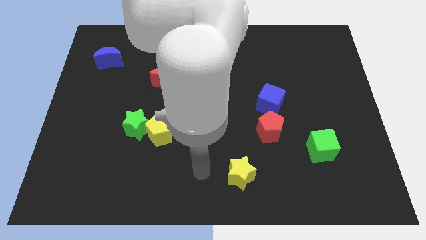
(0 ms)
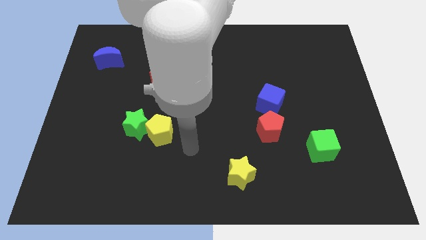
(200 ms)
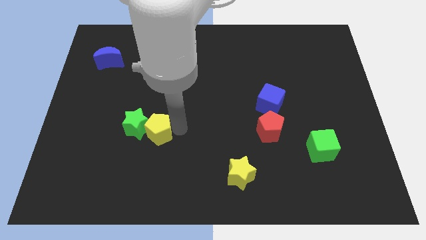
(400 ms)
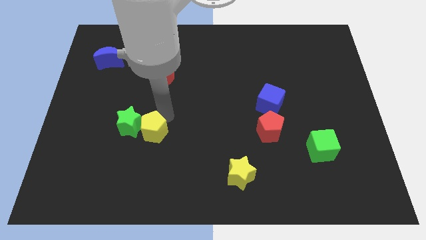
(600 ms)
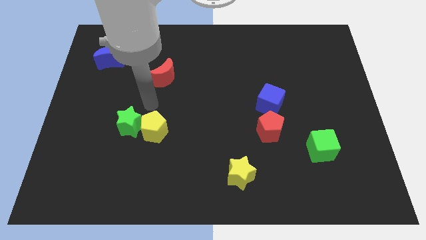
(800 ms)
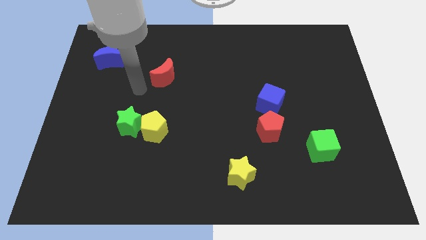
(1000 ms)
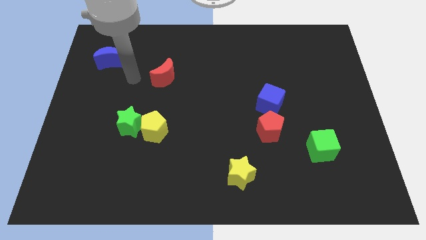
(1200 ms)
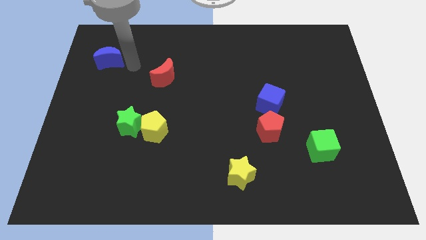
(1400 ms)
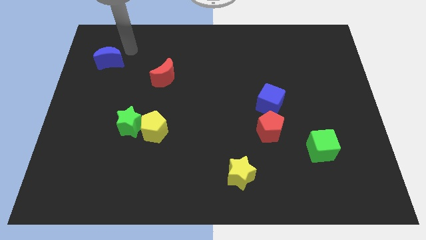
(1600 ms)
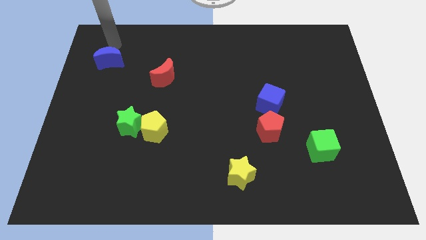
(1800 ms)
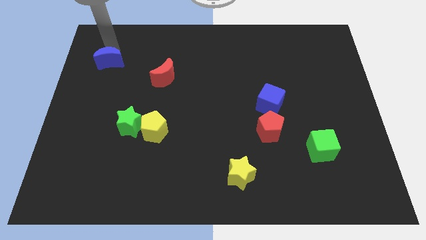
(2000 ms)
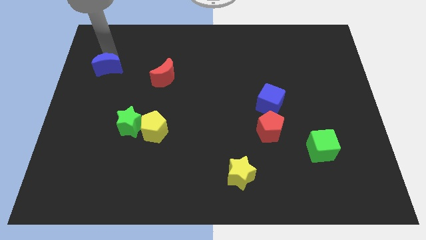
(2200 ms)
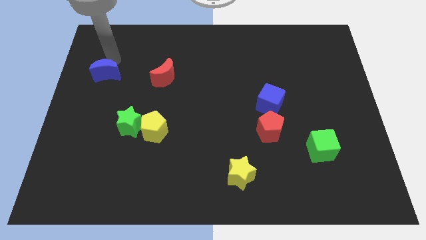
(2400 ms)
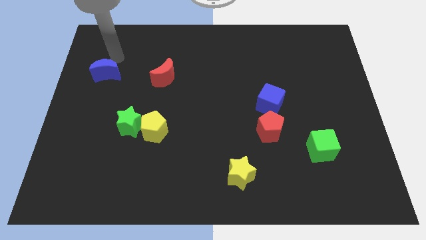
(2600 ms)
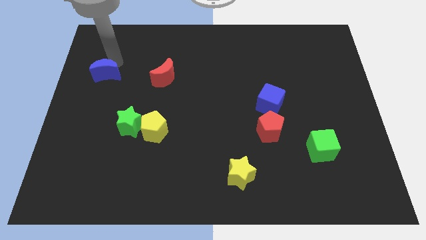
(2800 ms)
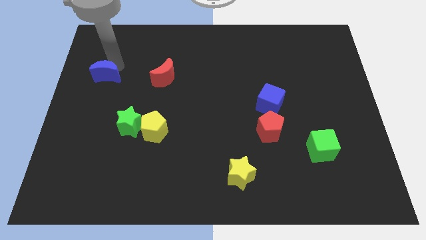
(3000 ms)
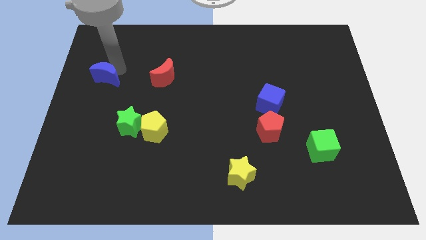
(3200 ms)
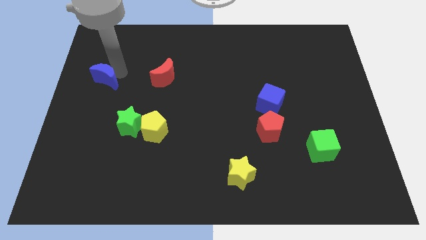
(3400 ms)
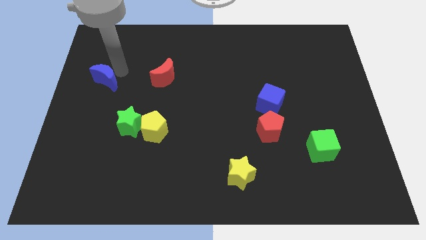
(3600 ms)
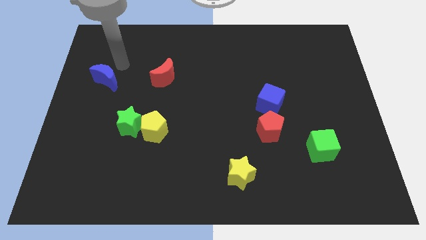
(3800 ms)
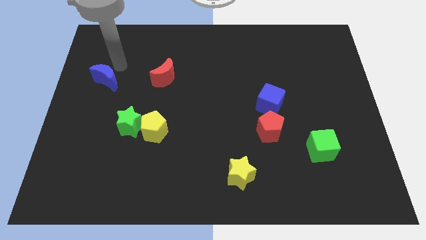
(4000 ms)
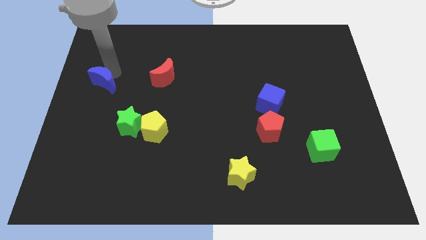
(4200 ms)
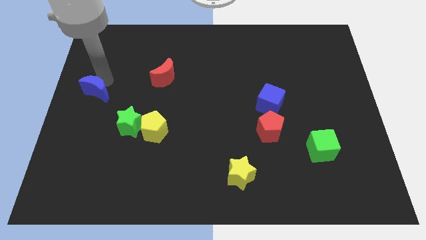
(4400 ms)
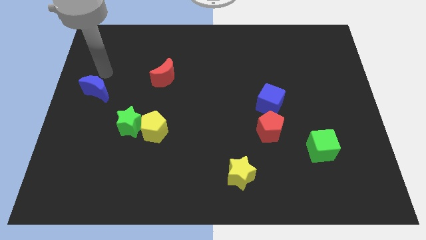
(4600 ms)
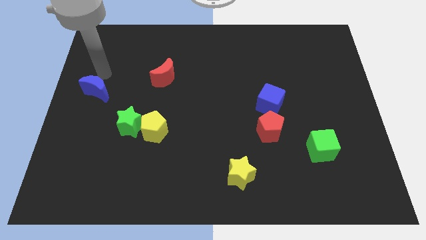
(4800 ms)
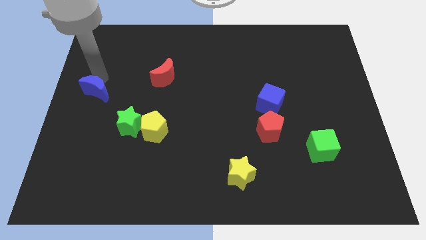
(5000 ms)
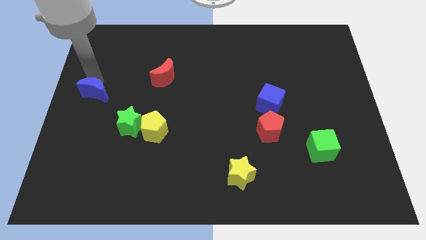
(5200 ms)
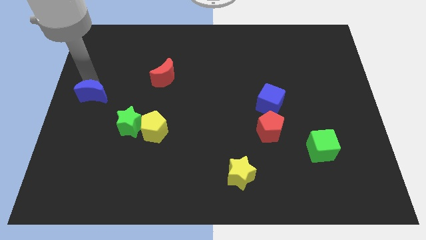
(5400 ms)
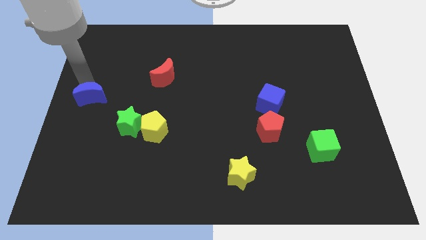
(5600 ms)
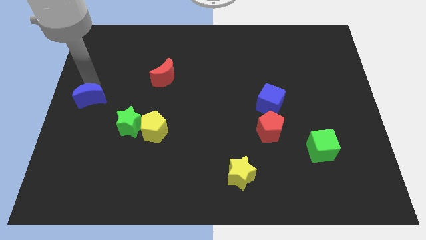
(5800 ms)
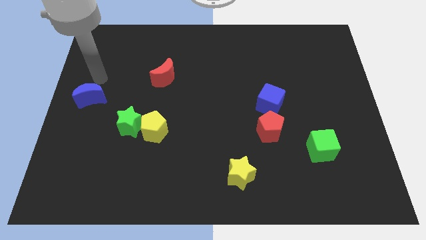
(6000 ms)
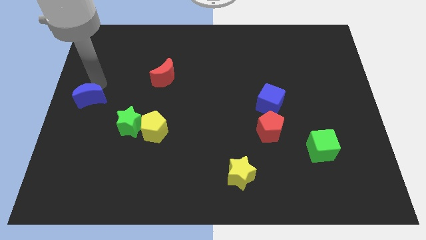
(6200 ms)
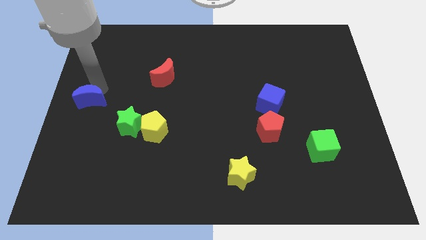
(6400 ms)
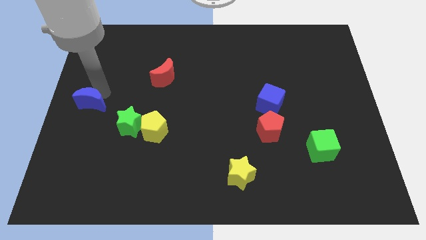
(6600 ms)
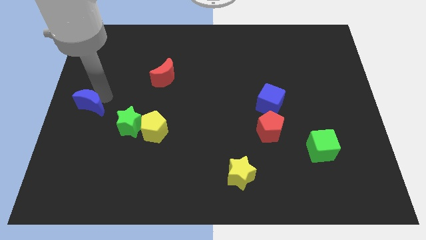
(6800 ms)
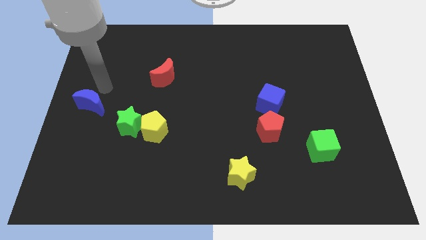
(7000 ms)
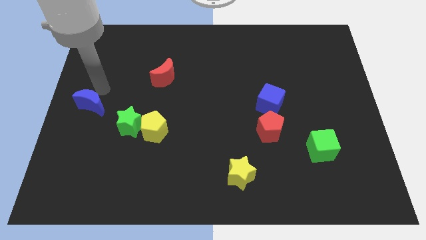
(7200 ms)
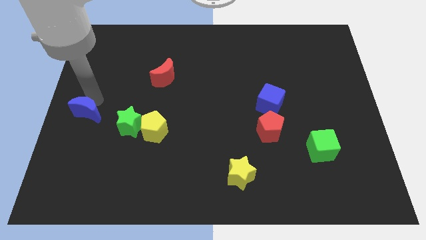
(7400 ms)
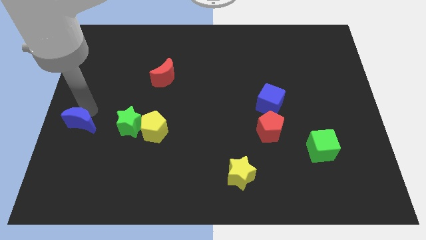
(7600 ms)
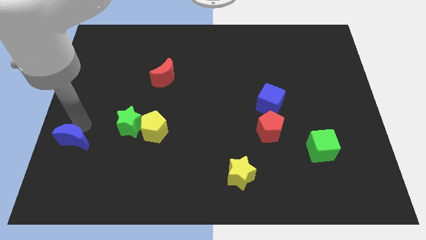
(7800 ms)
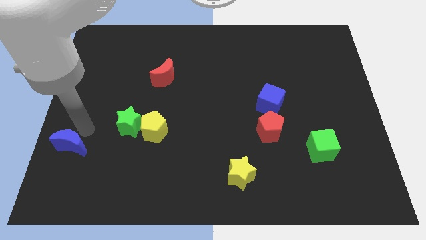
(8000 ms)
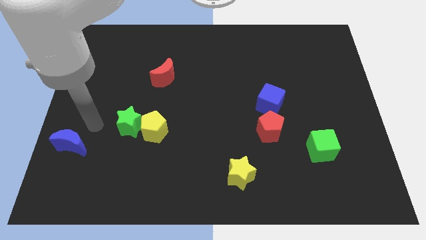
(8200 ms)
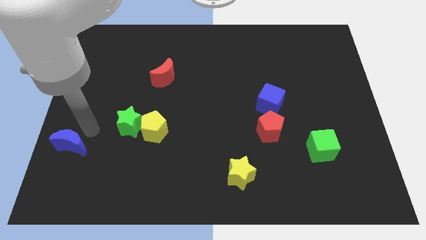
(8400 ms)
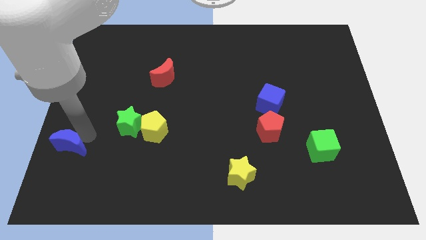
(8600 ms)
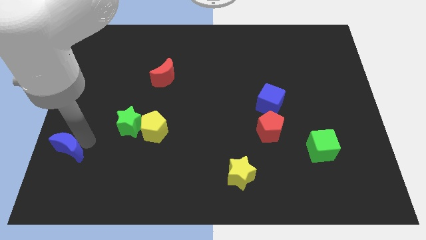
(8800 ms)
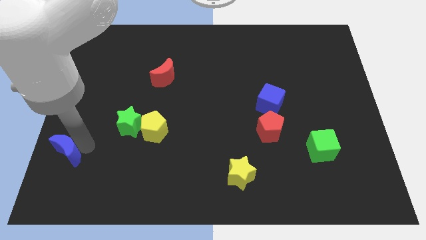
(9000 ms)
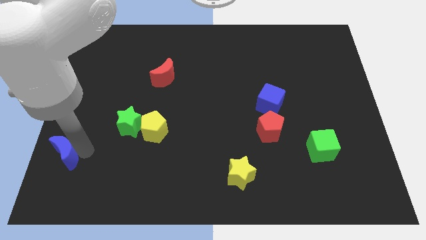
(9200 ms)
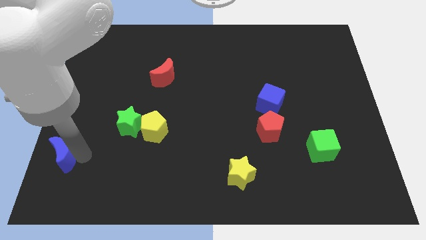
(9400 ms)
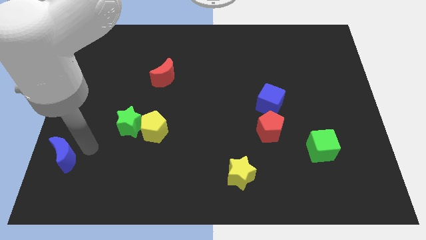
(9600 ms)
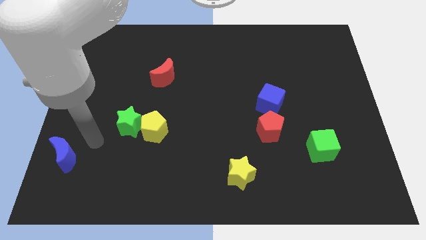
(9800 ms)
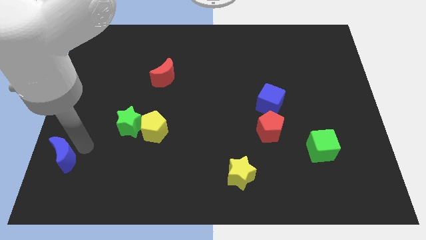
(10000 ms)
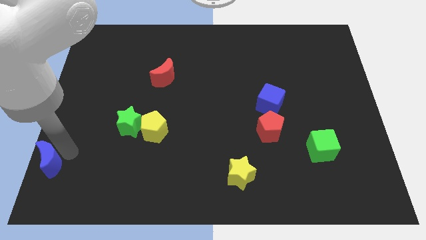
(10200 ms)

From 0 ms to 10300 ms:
move the blue moon to the lower left corner

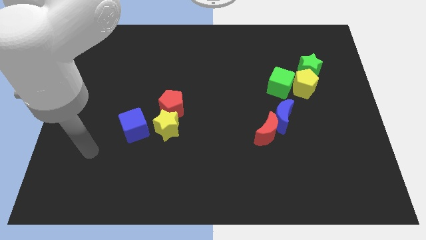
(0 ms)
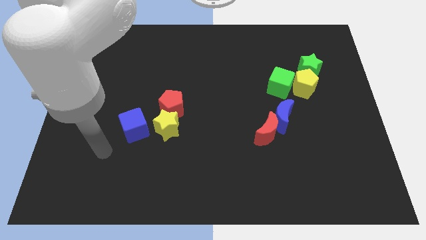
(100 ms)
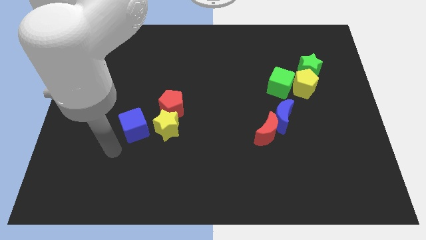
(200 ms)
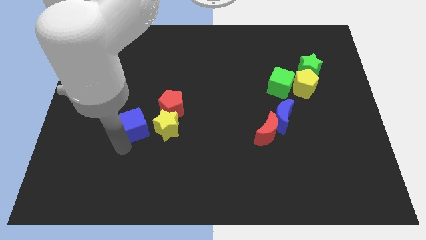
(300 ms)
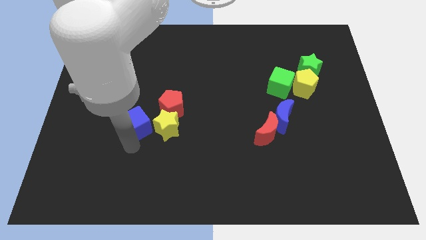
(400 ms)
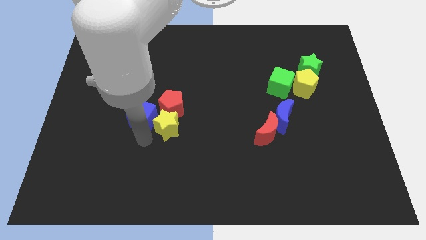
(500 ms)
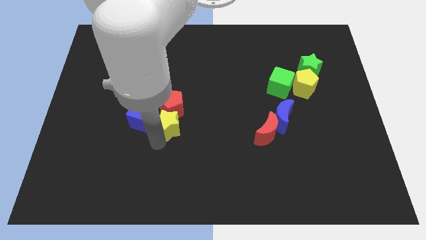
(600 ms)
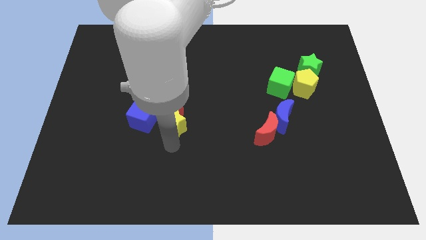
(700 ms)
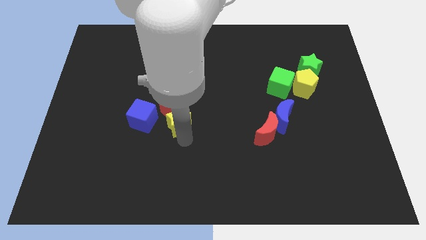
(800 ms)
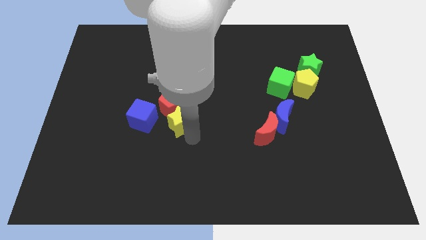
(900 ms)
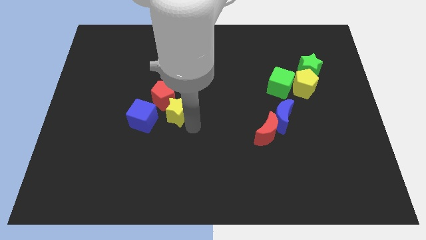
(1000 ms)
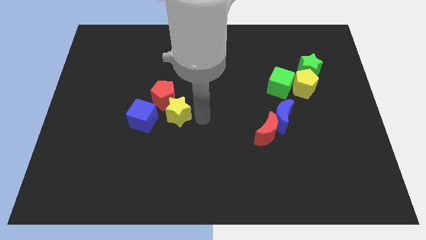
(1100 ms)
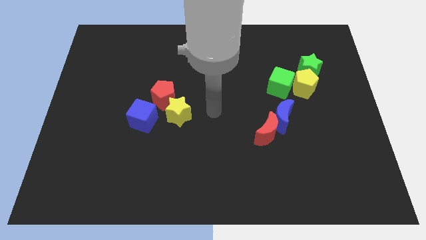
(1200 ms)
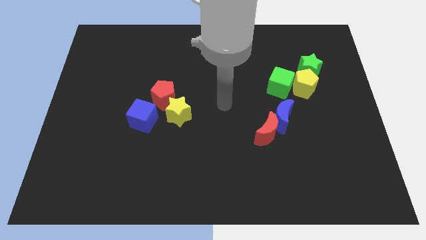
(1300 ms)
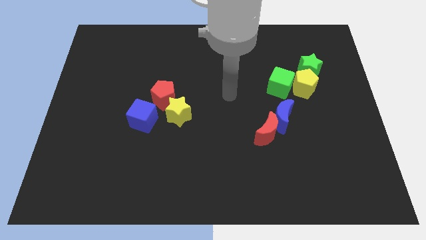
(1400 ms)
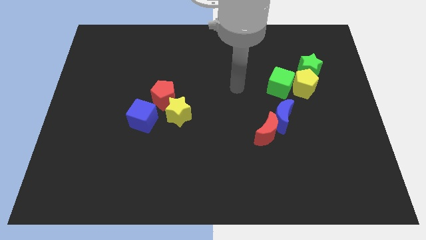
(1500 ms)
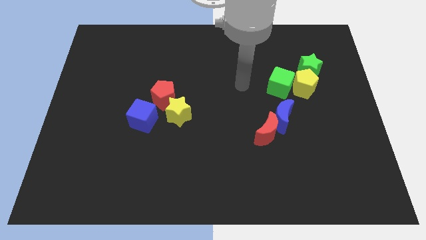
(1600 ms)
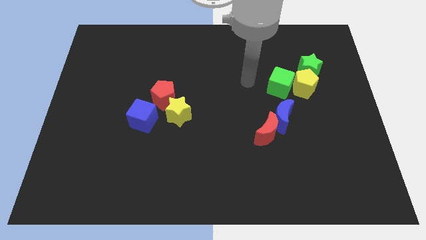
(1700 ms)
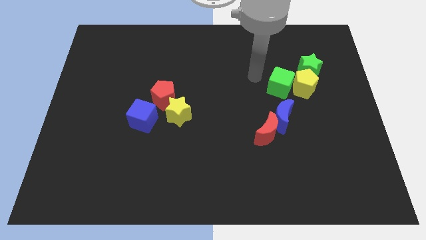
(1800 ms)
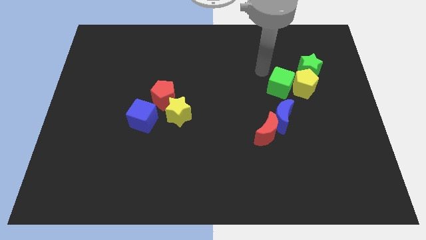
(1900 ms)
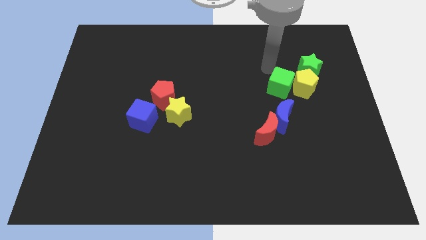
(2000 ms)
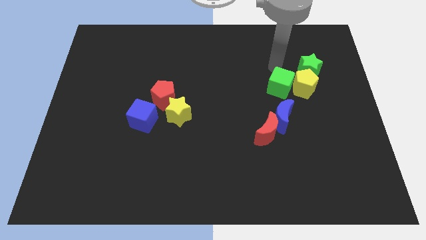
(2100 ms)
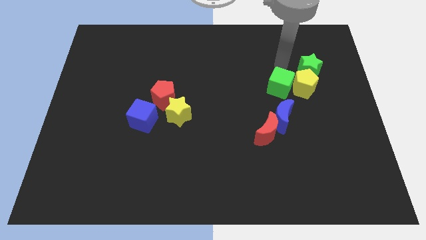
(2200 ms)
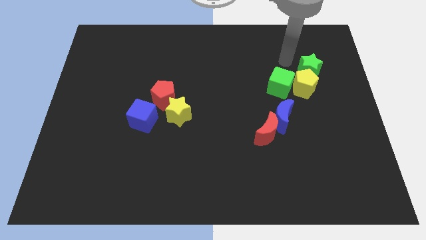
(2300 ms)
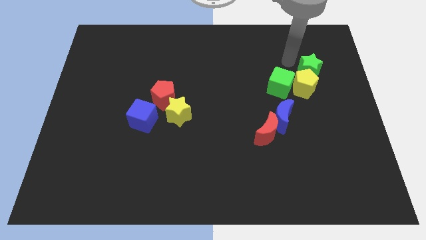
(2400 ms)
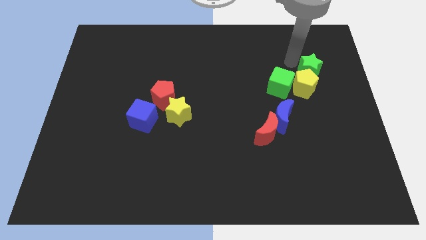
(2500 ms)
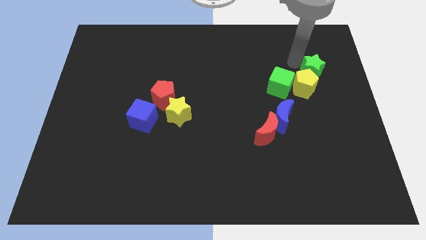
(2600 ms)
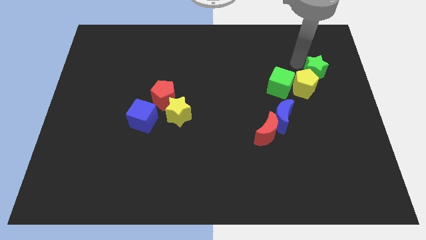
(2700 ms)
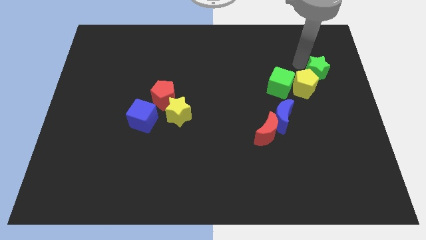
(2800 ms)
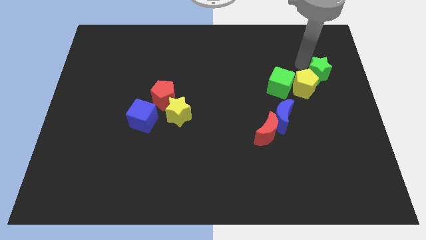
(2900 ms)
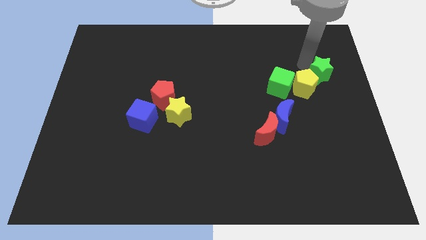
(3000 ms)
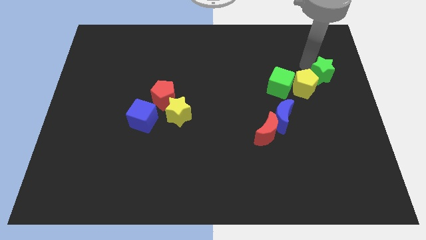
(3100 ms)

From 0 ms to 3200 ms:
slide the green star to the center right
